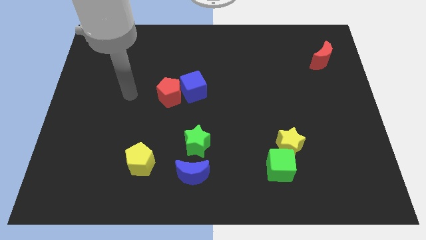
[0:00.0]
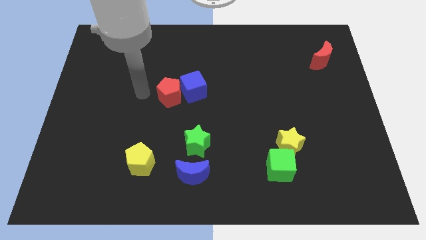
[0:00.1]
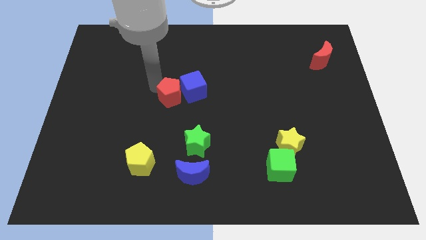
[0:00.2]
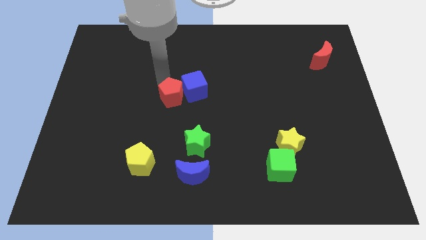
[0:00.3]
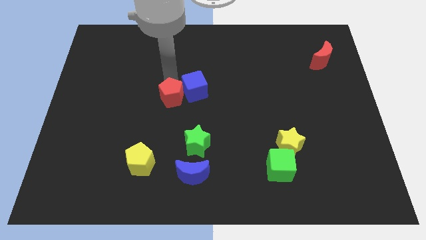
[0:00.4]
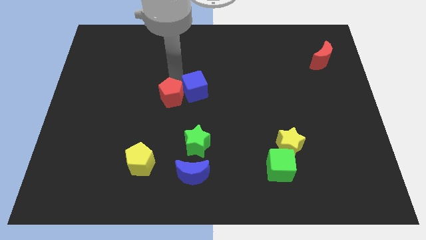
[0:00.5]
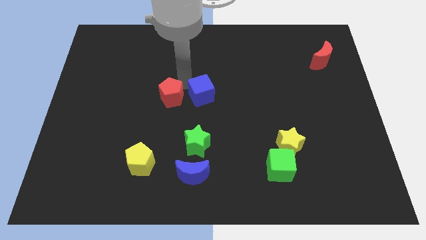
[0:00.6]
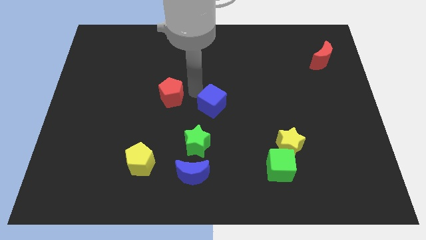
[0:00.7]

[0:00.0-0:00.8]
move the red pentagon away from the blue cube

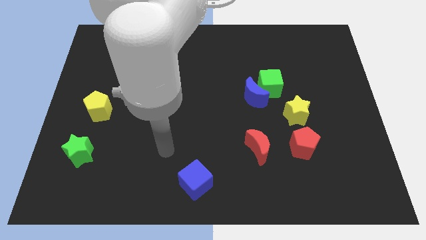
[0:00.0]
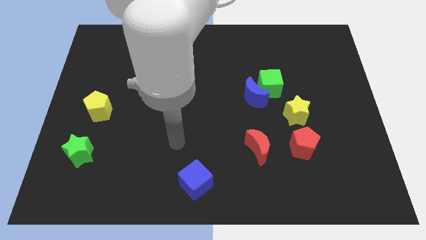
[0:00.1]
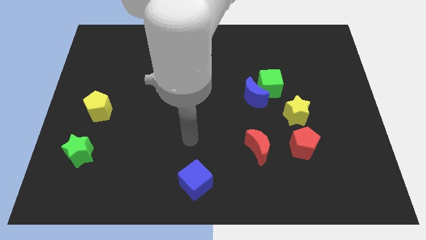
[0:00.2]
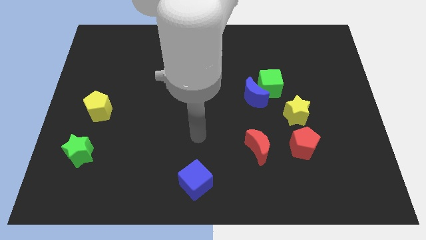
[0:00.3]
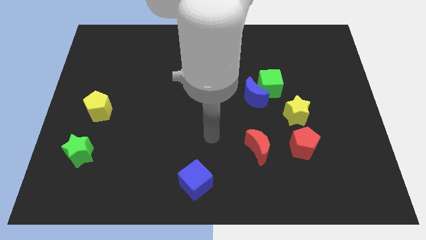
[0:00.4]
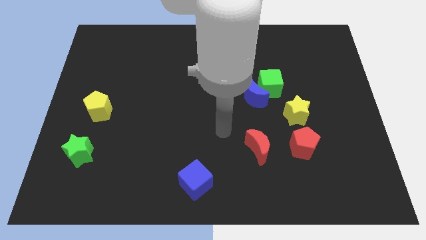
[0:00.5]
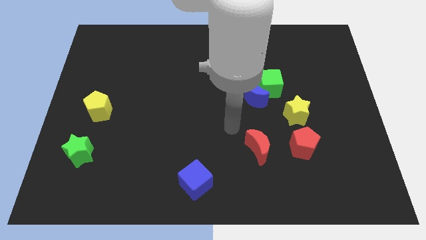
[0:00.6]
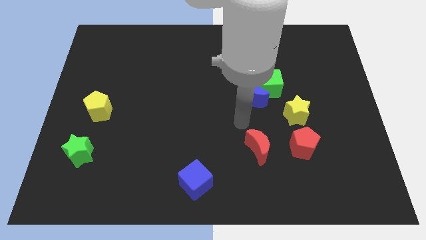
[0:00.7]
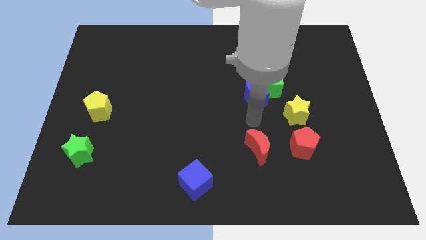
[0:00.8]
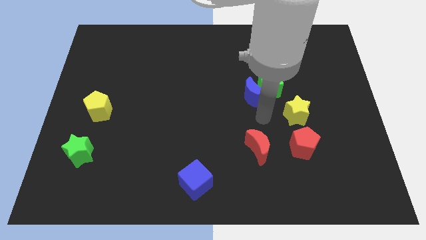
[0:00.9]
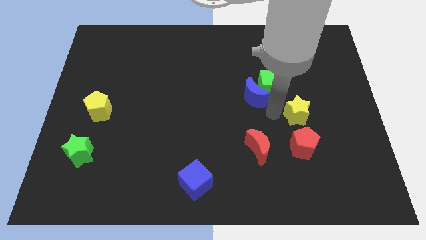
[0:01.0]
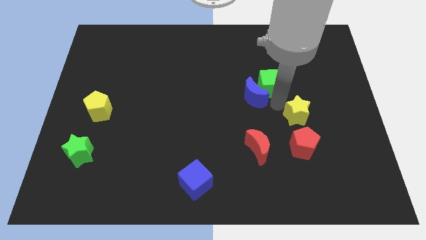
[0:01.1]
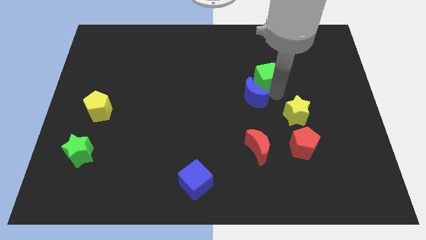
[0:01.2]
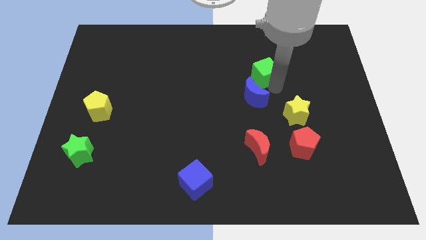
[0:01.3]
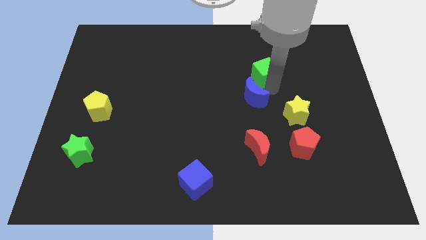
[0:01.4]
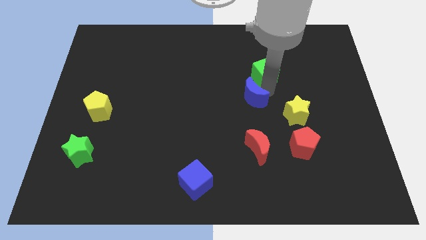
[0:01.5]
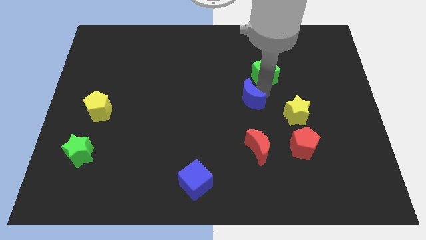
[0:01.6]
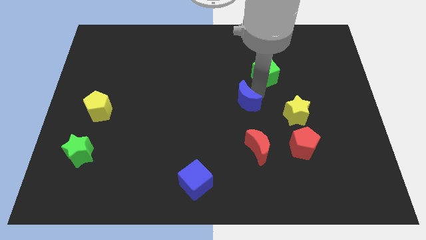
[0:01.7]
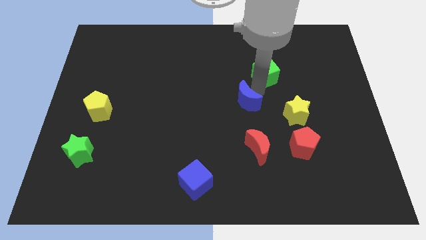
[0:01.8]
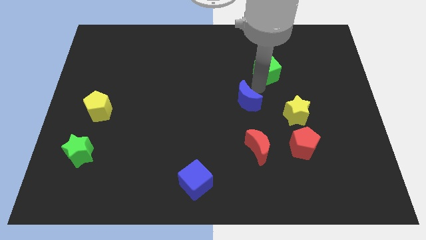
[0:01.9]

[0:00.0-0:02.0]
move the blue moon away from the green cube

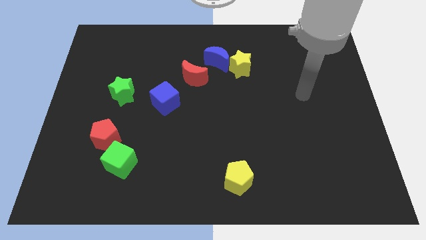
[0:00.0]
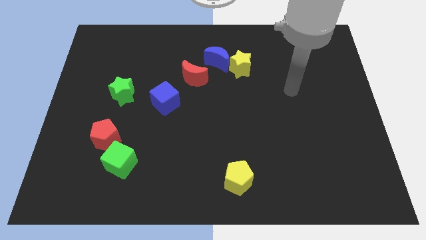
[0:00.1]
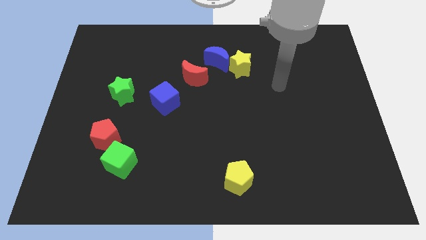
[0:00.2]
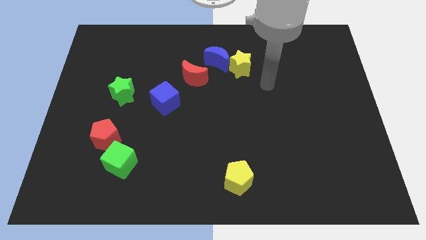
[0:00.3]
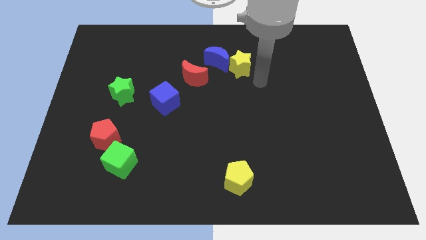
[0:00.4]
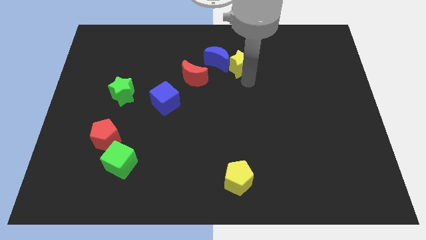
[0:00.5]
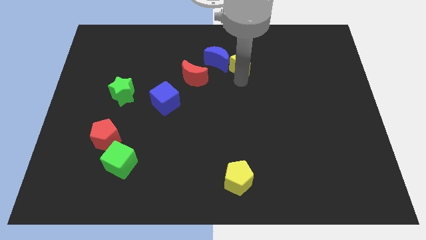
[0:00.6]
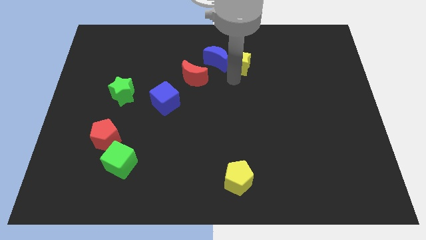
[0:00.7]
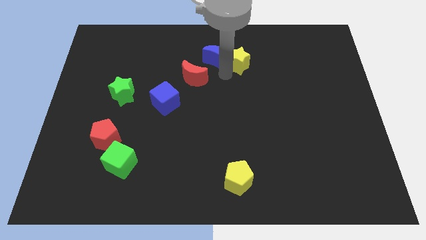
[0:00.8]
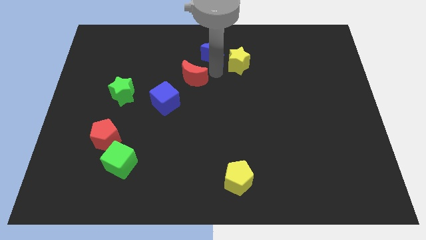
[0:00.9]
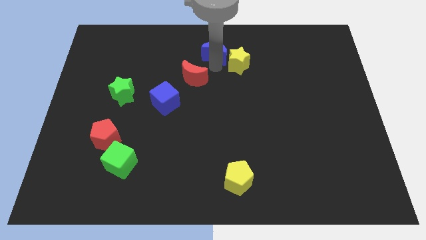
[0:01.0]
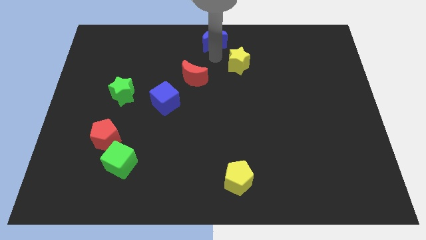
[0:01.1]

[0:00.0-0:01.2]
separate the yellow star from the blue moon

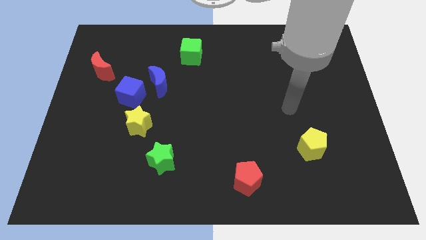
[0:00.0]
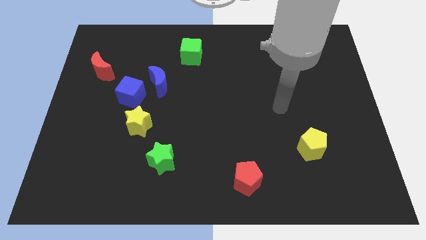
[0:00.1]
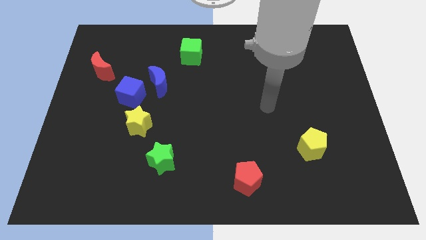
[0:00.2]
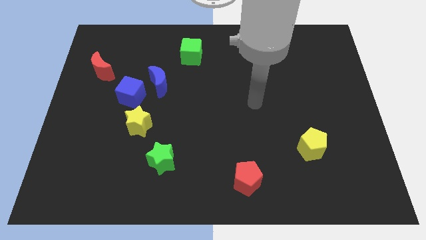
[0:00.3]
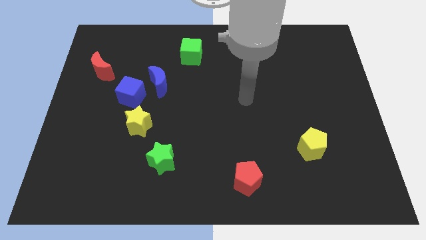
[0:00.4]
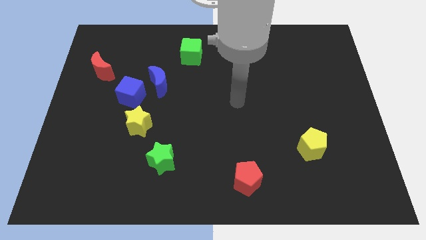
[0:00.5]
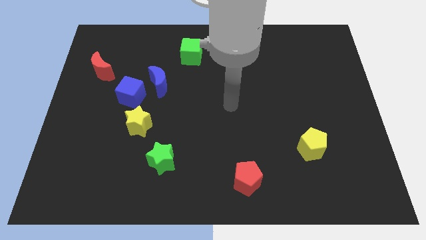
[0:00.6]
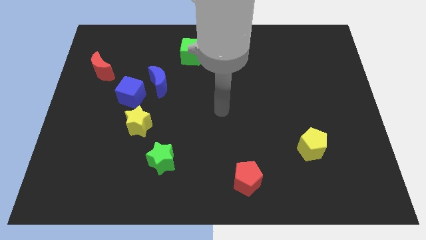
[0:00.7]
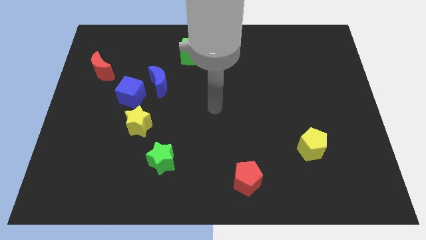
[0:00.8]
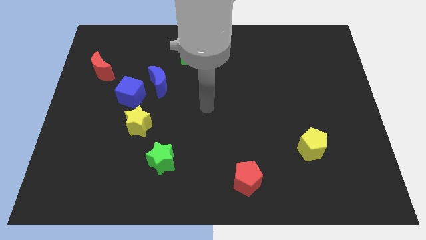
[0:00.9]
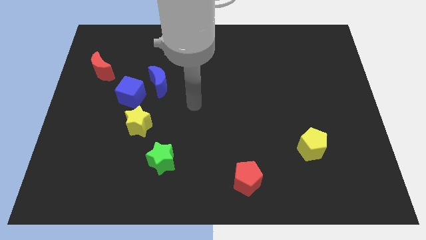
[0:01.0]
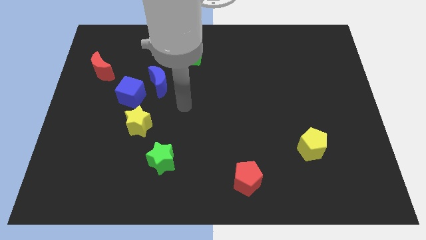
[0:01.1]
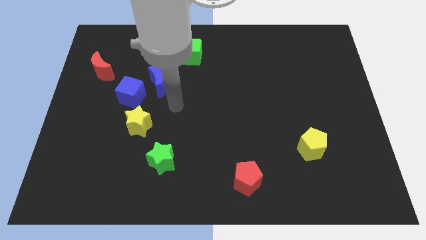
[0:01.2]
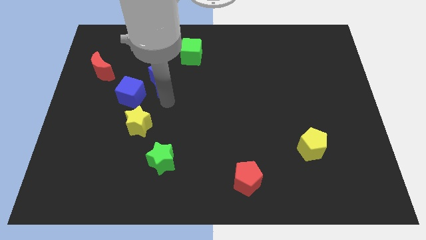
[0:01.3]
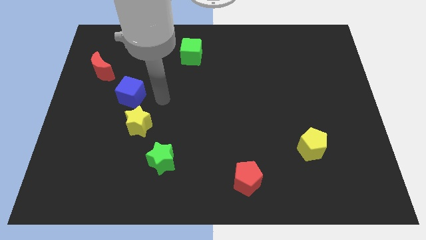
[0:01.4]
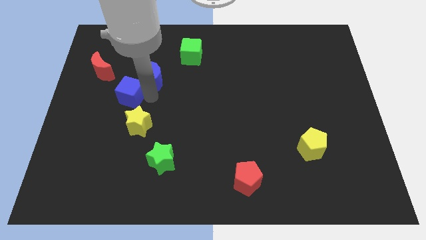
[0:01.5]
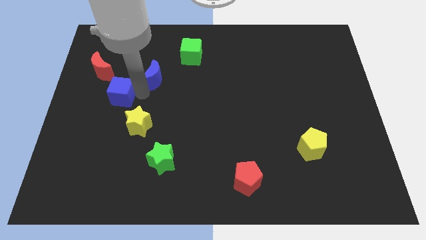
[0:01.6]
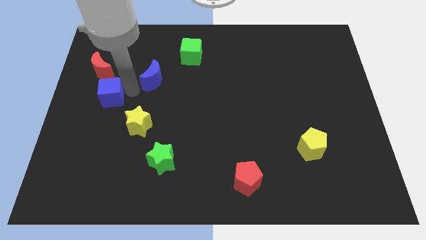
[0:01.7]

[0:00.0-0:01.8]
pull the blue moon apart from the blue cube

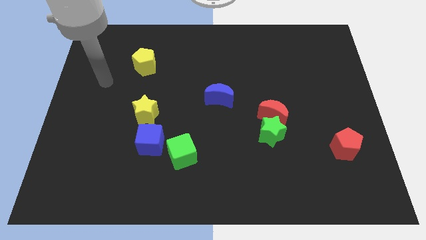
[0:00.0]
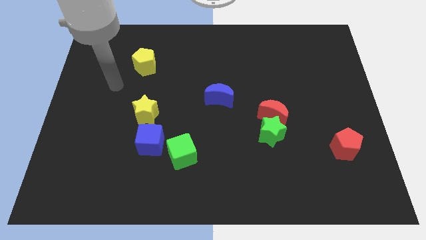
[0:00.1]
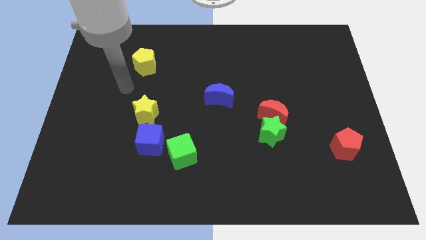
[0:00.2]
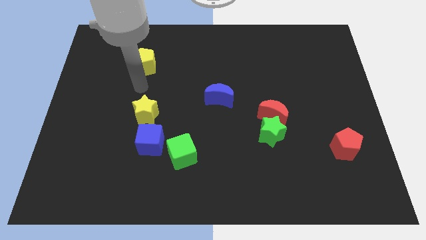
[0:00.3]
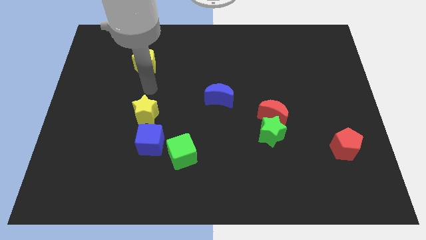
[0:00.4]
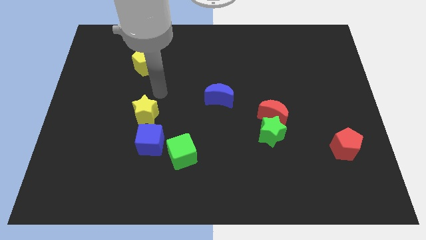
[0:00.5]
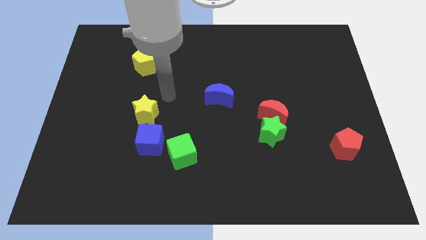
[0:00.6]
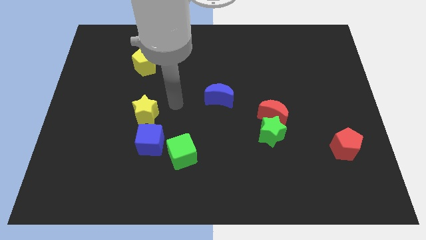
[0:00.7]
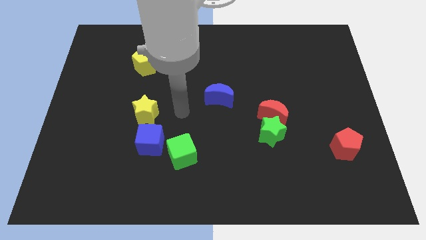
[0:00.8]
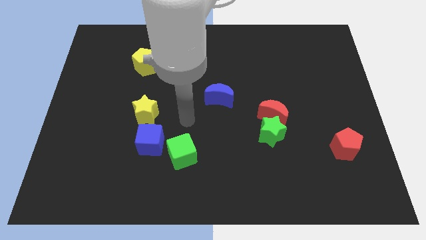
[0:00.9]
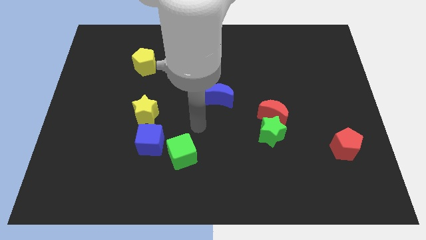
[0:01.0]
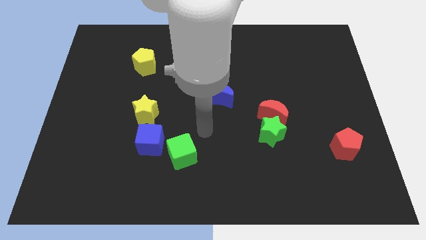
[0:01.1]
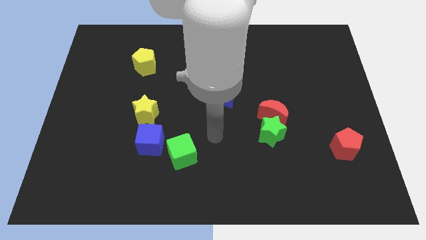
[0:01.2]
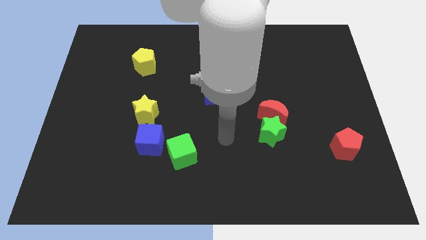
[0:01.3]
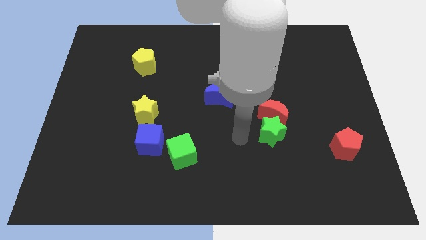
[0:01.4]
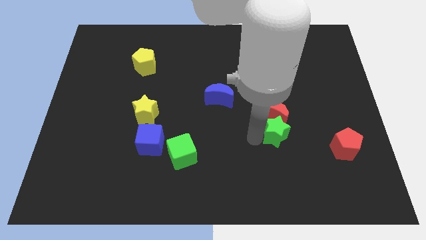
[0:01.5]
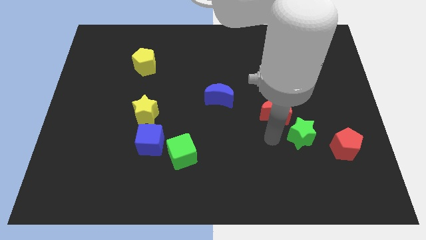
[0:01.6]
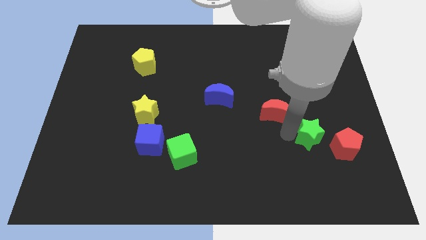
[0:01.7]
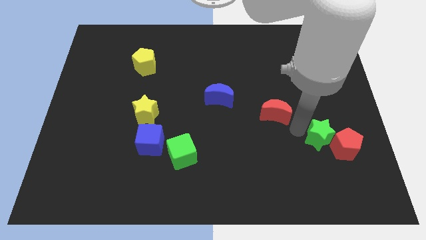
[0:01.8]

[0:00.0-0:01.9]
separate the red moon from the green star

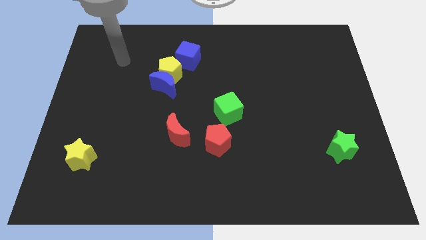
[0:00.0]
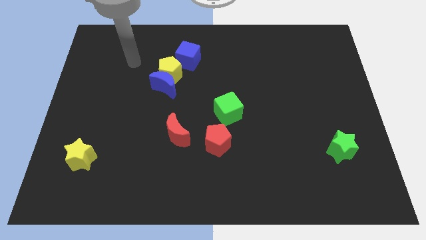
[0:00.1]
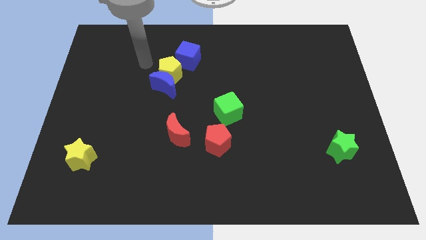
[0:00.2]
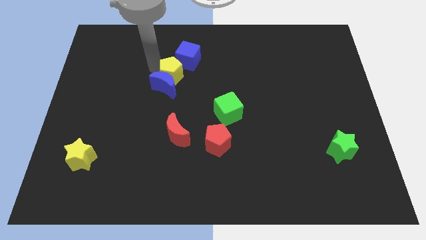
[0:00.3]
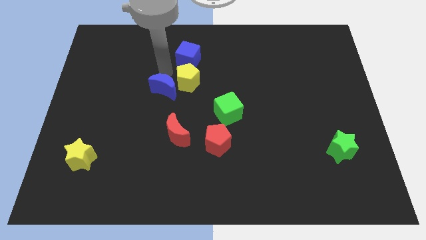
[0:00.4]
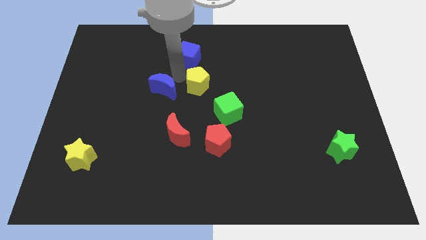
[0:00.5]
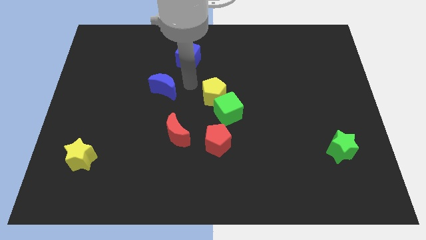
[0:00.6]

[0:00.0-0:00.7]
separate the blue moon from the yellow pentagon

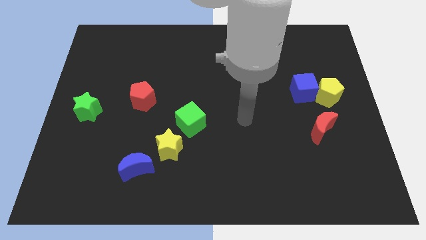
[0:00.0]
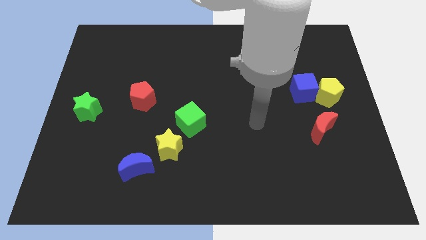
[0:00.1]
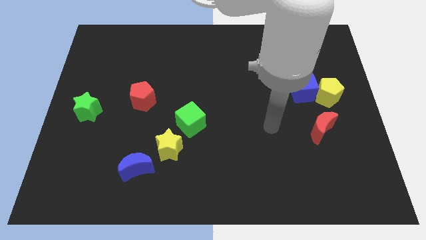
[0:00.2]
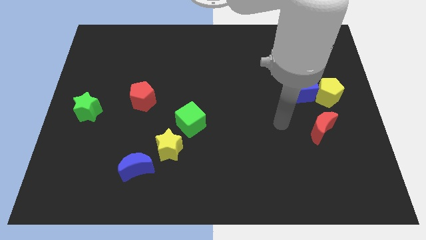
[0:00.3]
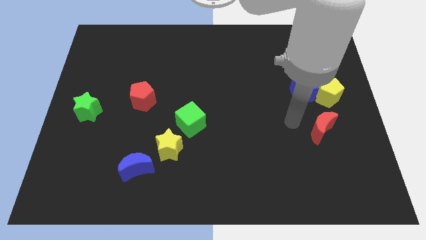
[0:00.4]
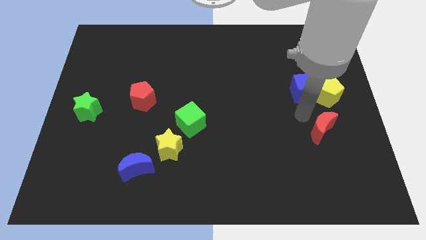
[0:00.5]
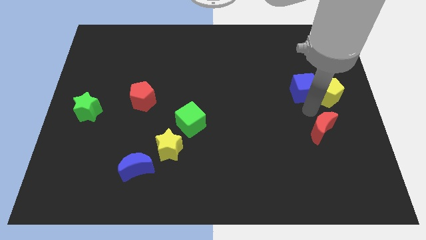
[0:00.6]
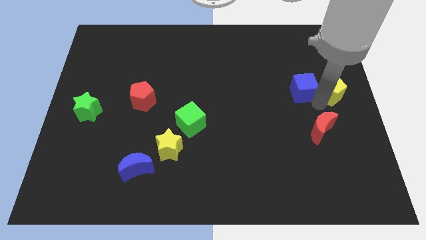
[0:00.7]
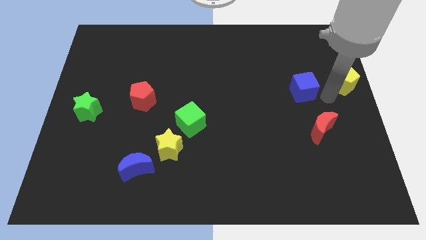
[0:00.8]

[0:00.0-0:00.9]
separate the blue cube from the yellow pentagon
